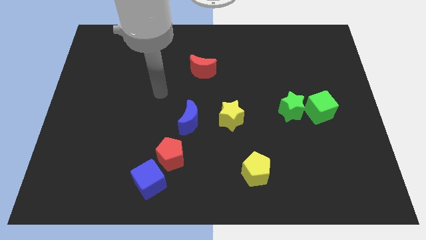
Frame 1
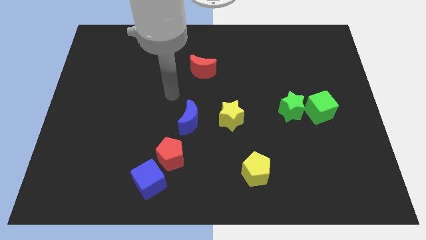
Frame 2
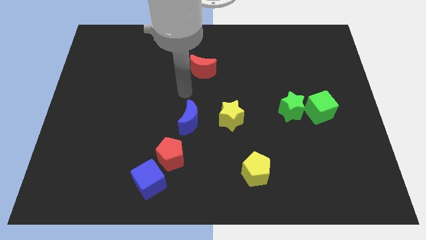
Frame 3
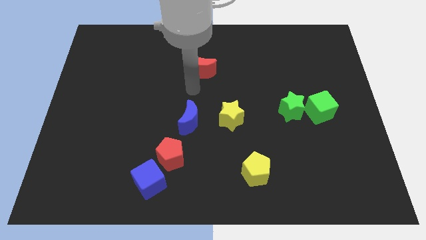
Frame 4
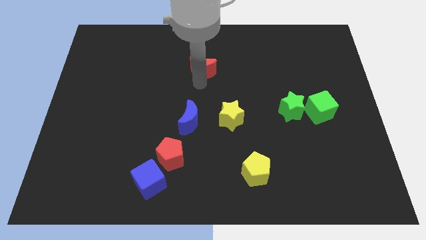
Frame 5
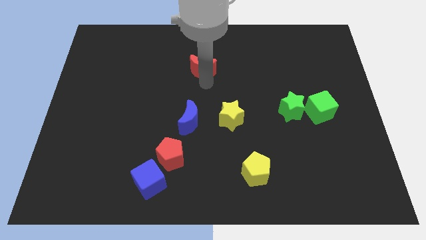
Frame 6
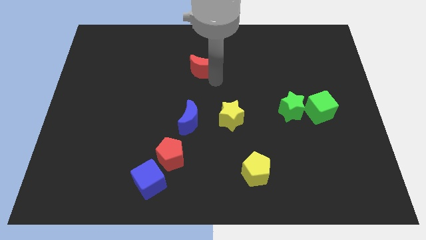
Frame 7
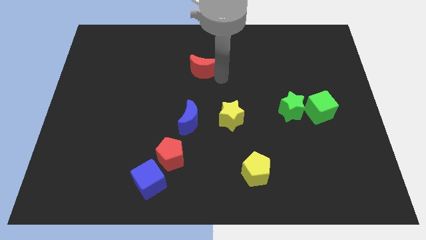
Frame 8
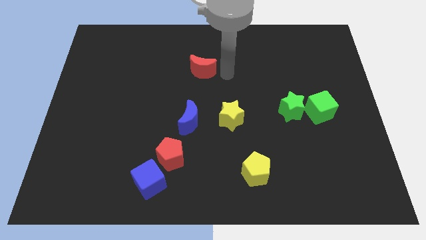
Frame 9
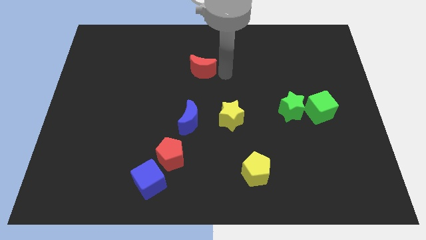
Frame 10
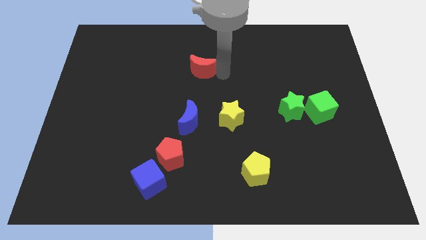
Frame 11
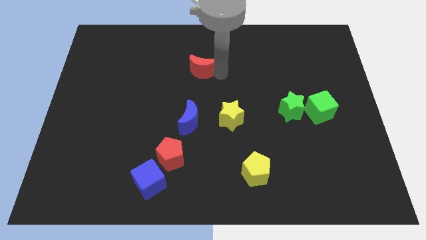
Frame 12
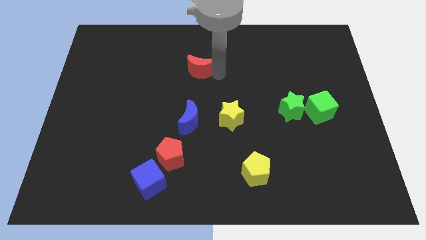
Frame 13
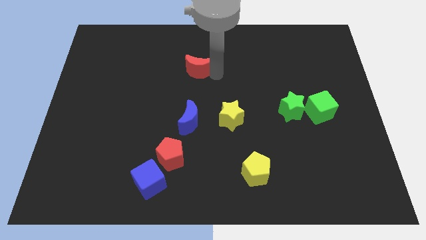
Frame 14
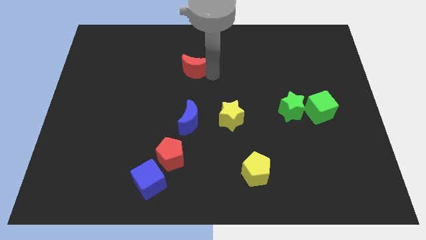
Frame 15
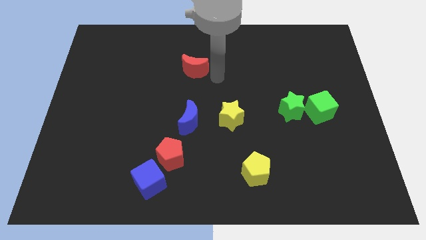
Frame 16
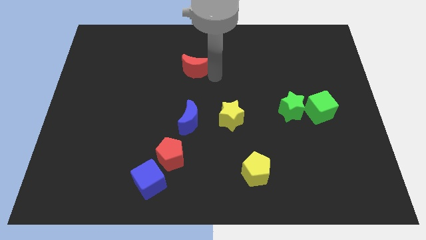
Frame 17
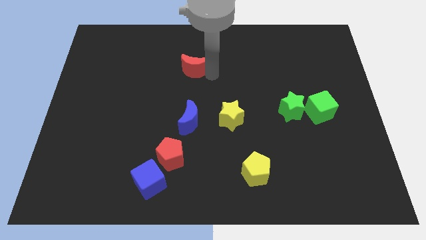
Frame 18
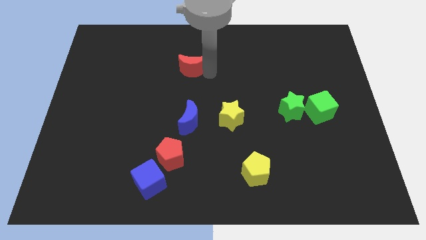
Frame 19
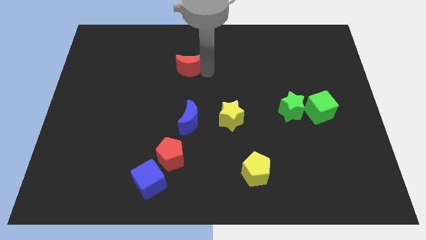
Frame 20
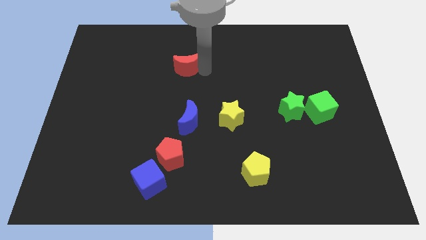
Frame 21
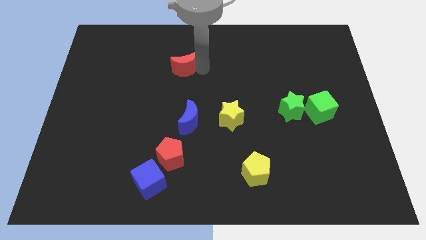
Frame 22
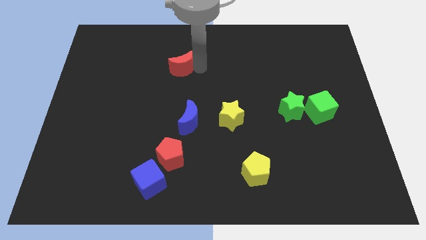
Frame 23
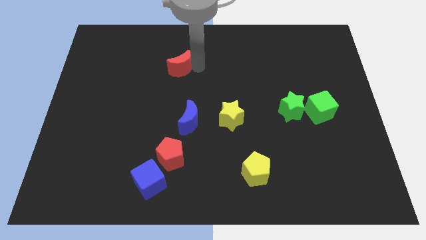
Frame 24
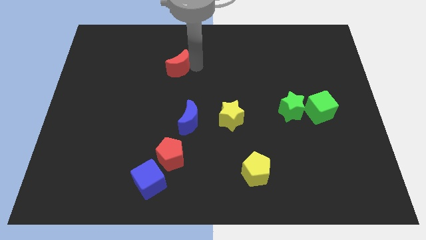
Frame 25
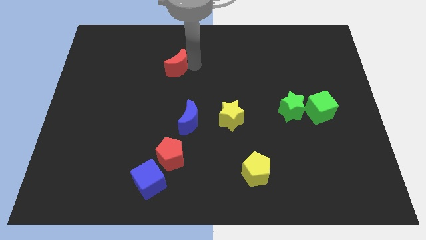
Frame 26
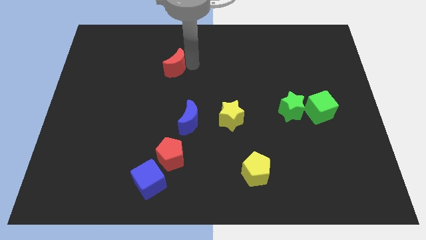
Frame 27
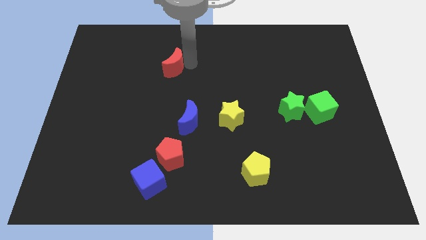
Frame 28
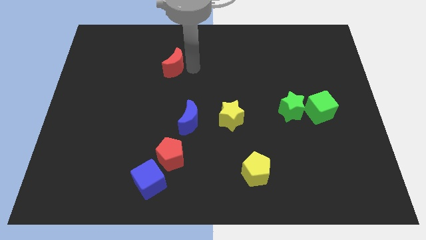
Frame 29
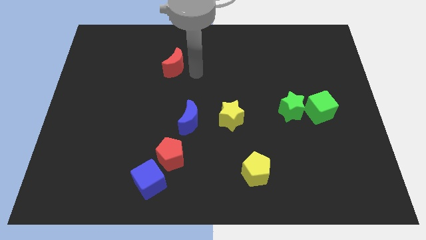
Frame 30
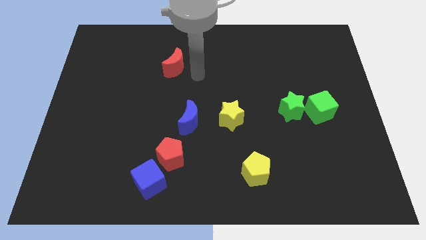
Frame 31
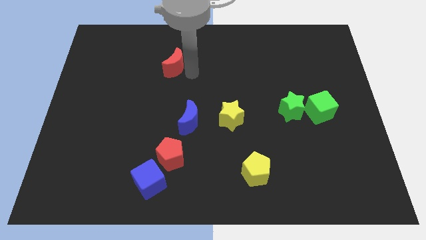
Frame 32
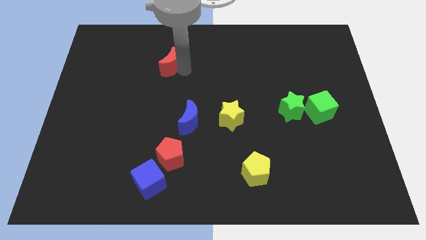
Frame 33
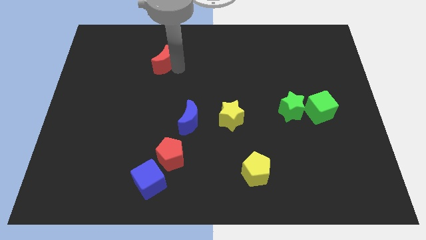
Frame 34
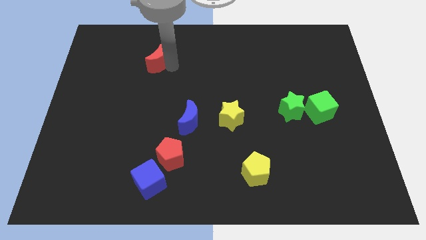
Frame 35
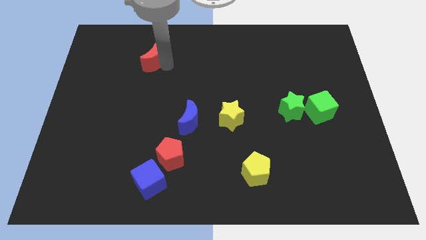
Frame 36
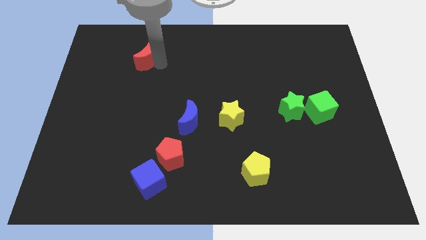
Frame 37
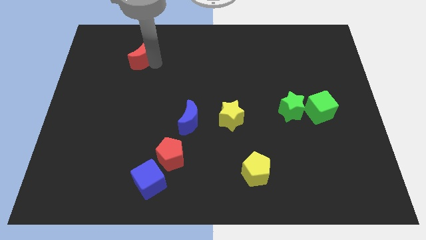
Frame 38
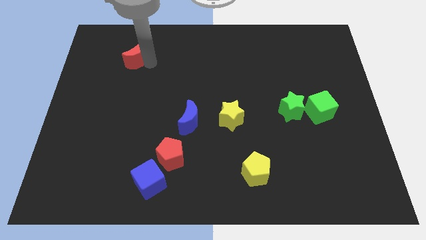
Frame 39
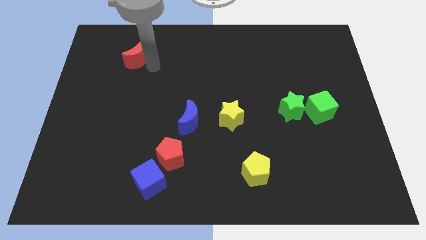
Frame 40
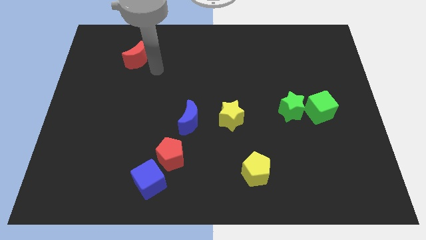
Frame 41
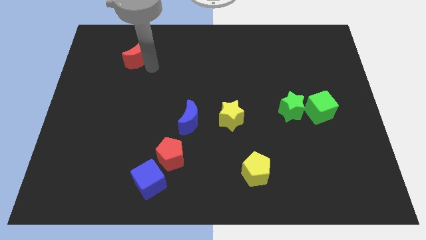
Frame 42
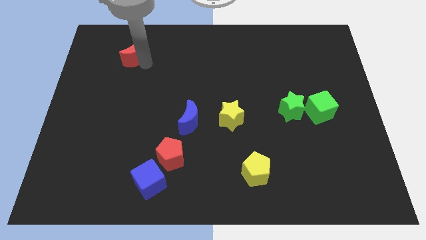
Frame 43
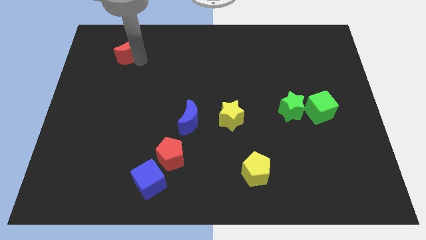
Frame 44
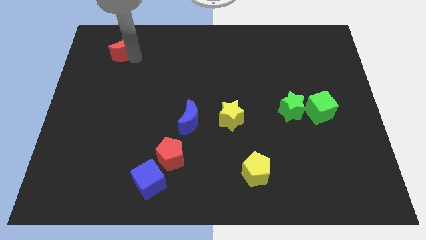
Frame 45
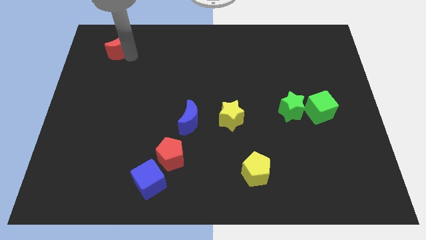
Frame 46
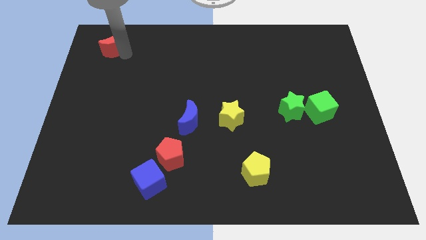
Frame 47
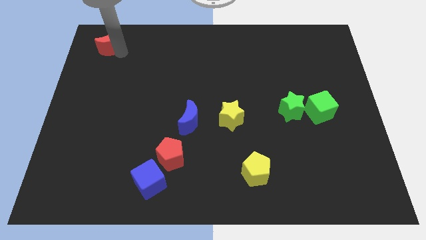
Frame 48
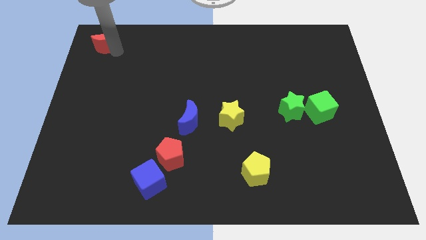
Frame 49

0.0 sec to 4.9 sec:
put the red moon to the top left corner

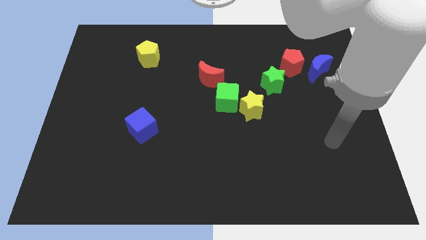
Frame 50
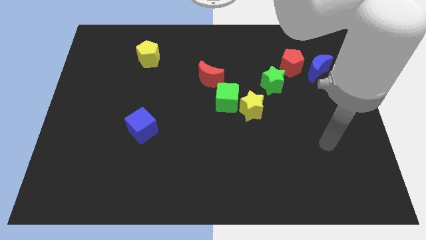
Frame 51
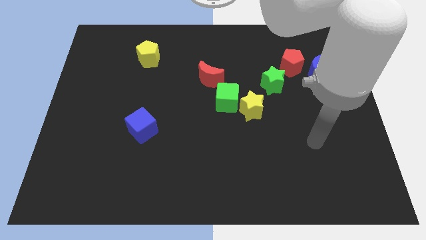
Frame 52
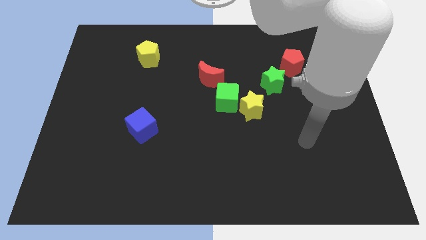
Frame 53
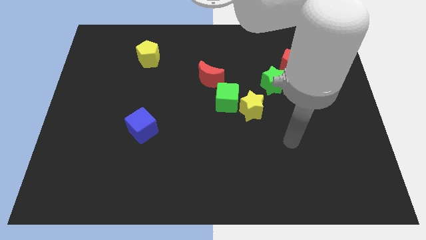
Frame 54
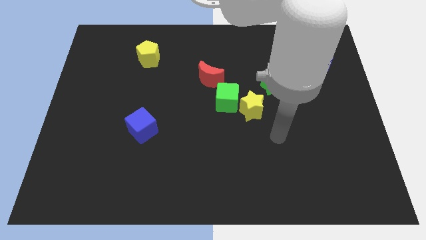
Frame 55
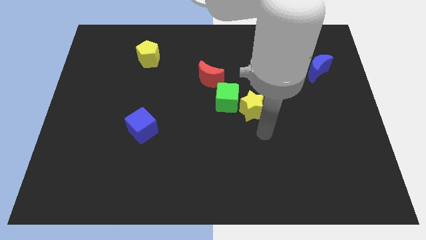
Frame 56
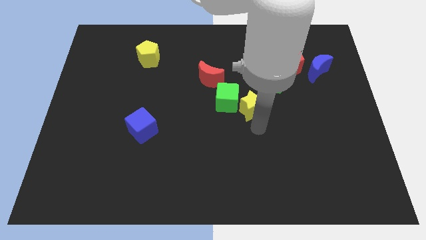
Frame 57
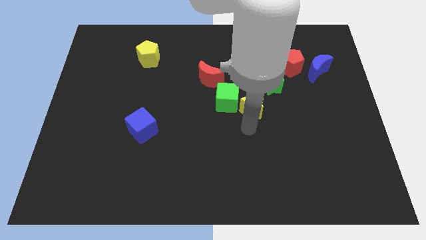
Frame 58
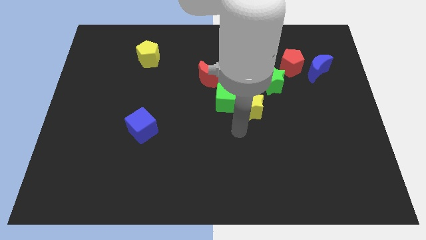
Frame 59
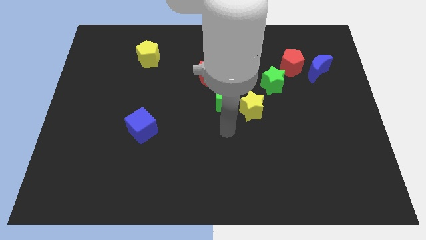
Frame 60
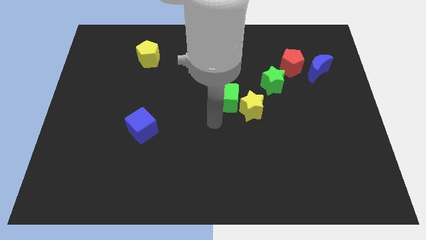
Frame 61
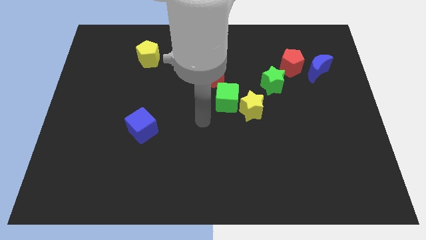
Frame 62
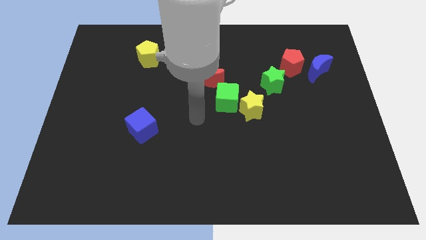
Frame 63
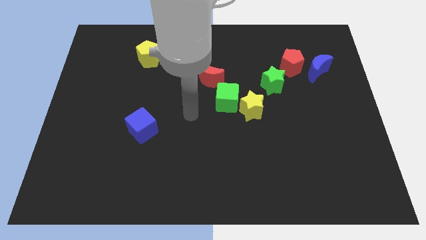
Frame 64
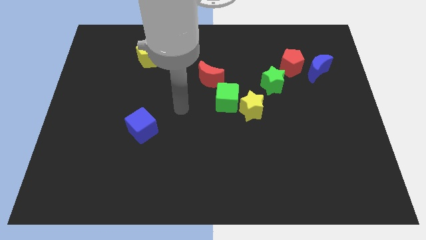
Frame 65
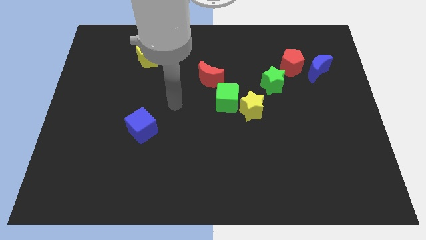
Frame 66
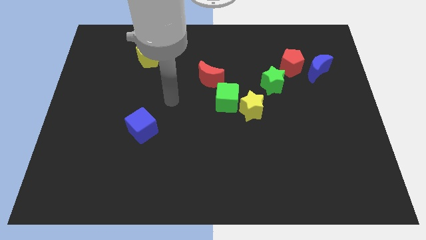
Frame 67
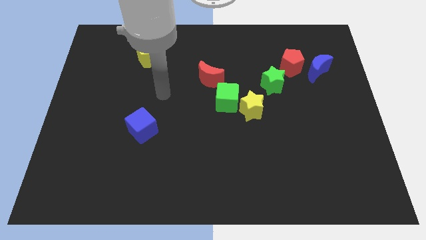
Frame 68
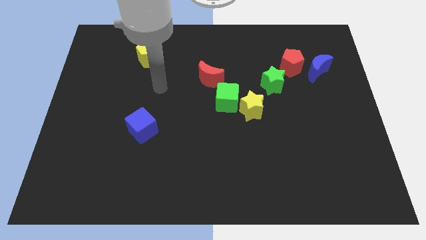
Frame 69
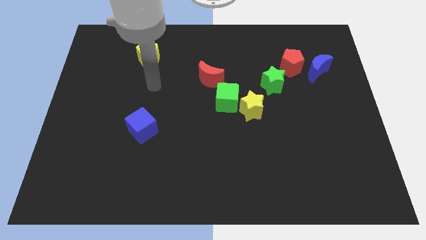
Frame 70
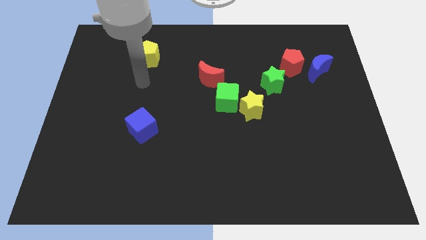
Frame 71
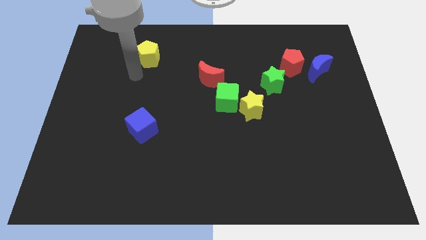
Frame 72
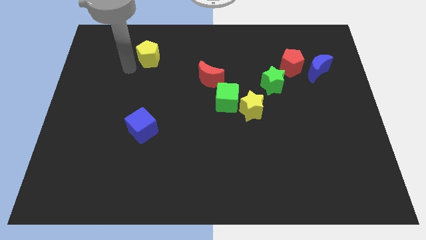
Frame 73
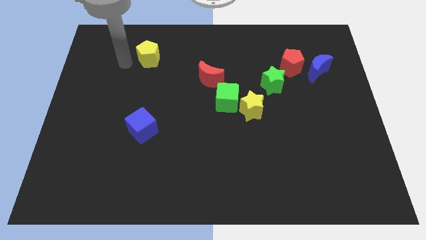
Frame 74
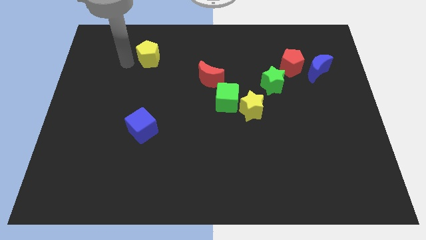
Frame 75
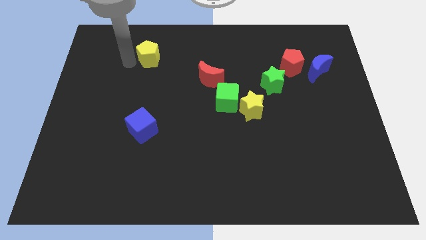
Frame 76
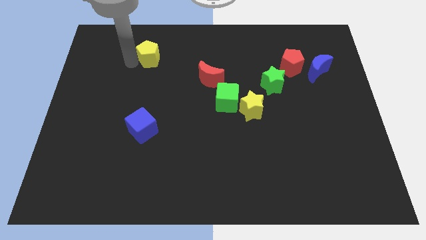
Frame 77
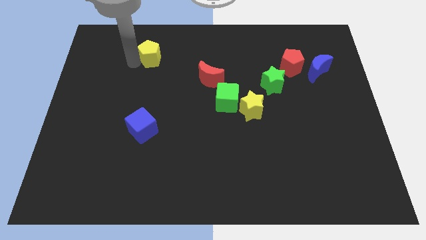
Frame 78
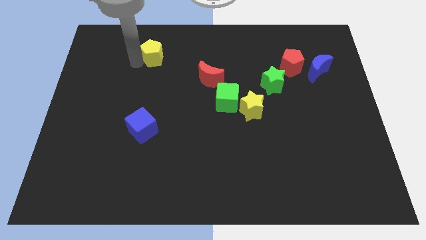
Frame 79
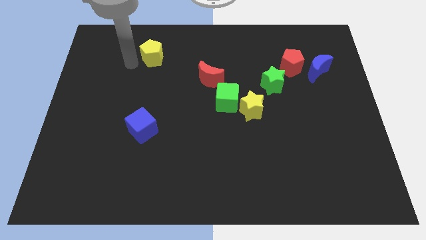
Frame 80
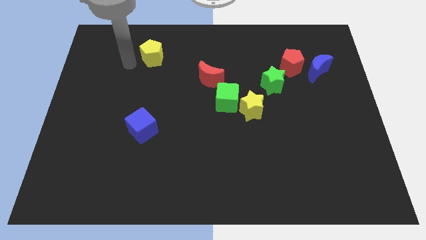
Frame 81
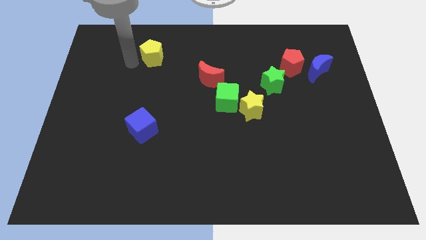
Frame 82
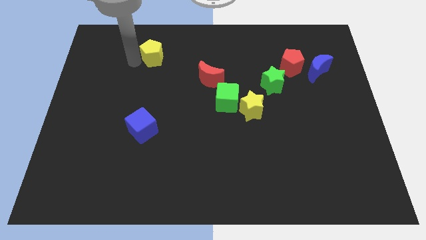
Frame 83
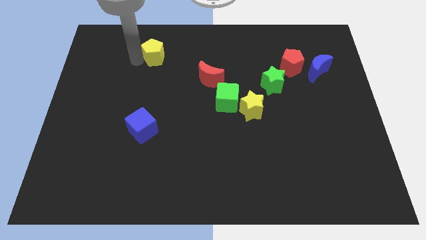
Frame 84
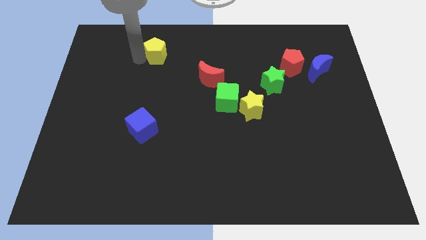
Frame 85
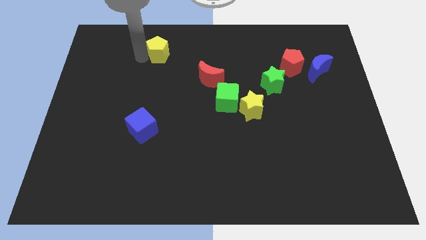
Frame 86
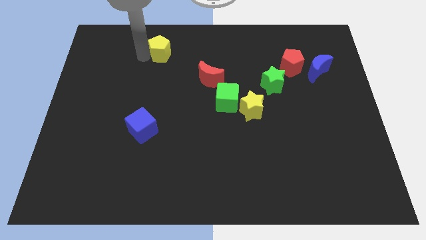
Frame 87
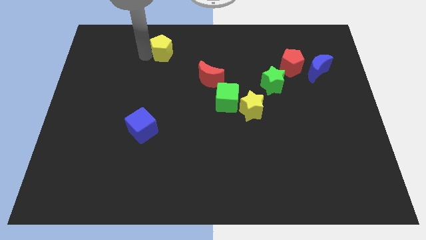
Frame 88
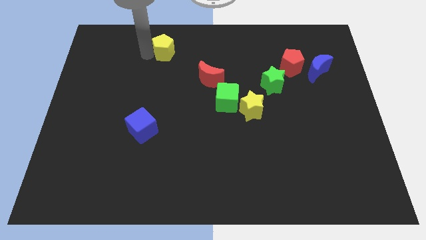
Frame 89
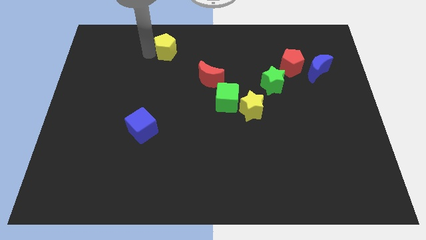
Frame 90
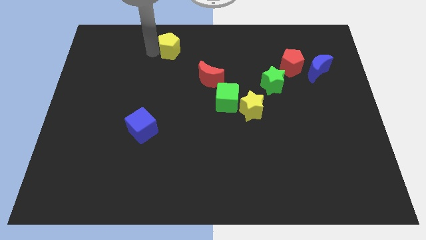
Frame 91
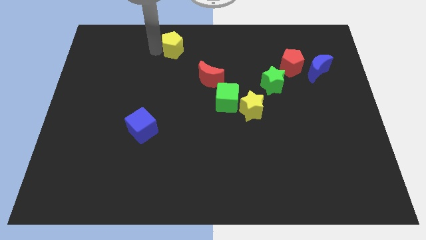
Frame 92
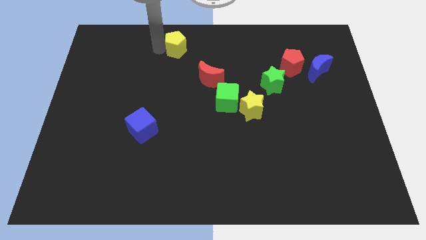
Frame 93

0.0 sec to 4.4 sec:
push the yellow pentagon to the top side
